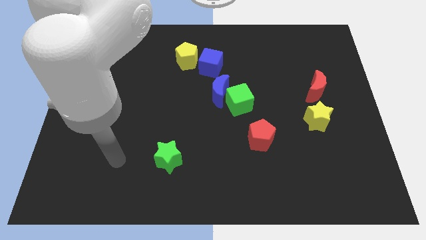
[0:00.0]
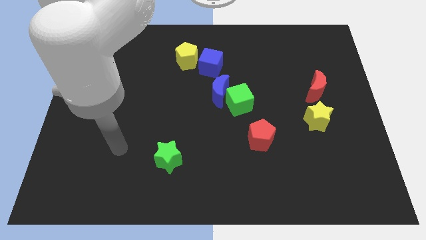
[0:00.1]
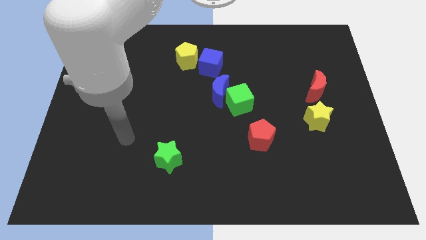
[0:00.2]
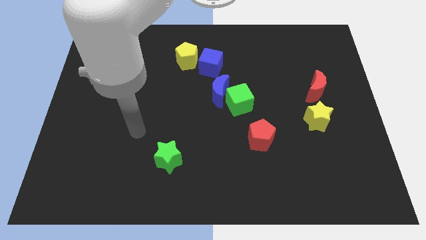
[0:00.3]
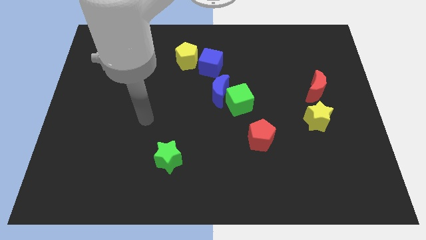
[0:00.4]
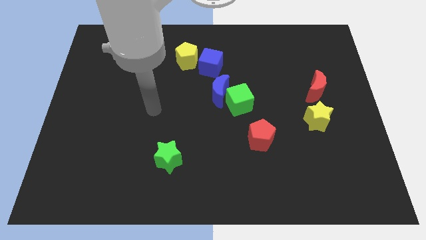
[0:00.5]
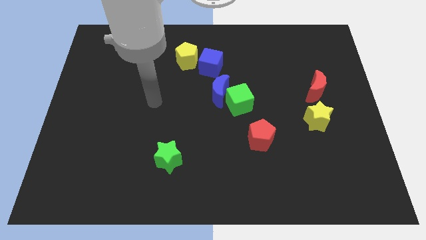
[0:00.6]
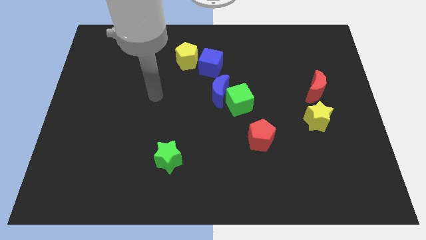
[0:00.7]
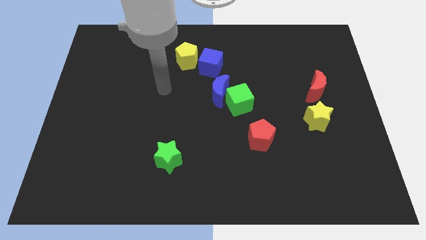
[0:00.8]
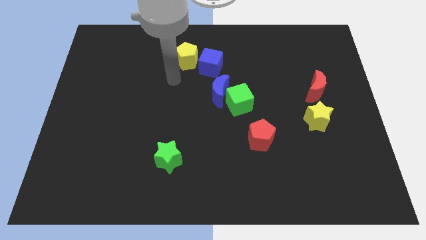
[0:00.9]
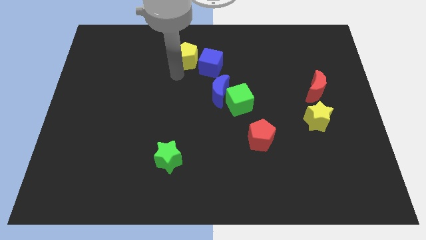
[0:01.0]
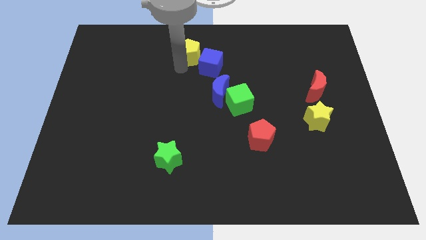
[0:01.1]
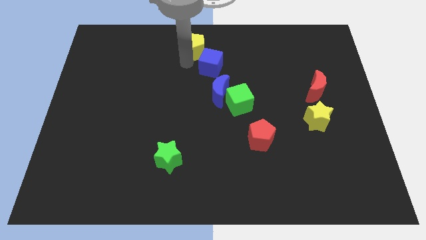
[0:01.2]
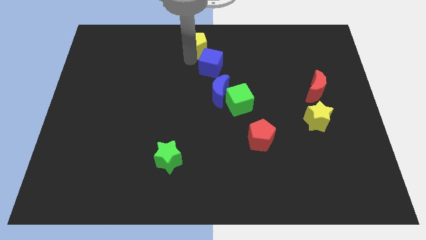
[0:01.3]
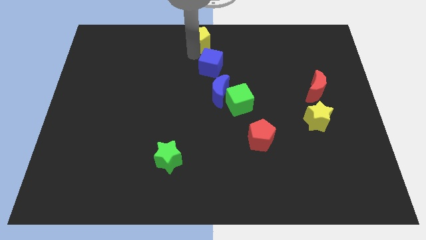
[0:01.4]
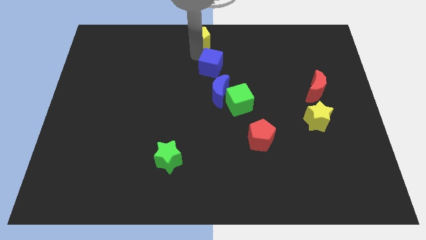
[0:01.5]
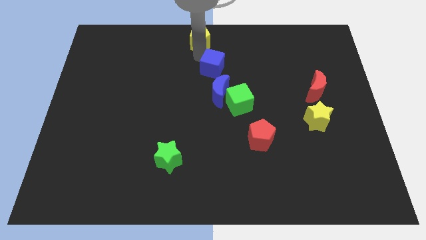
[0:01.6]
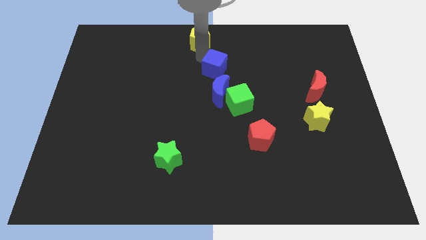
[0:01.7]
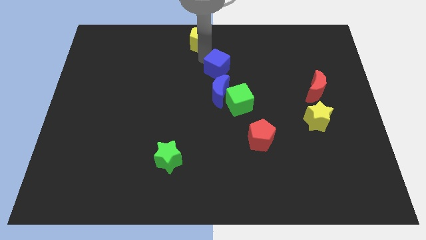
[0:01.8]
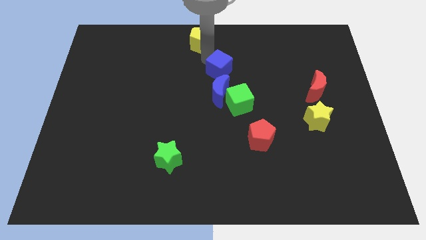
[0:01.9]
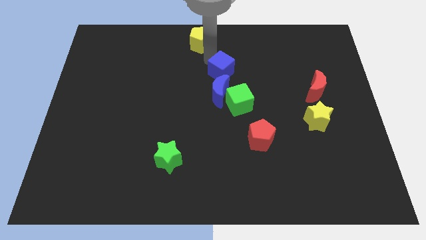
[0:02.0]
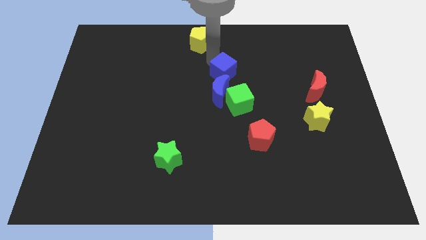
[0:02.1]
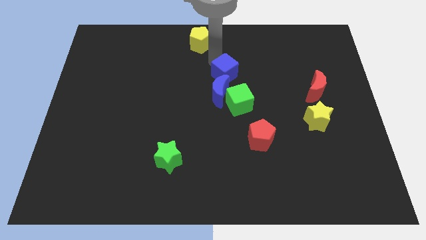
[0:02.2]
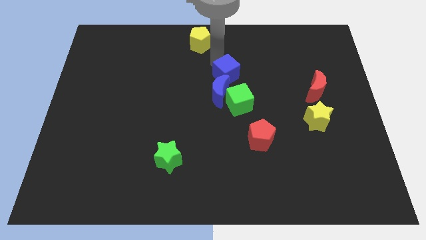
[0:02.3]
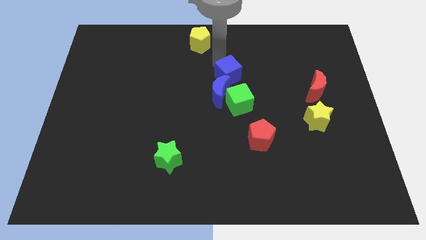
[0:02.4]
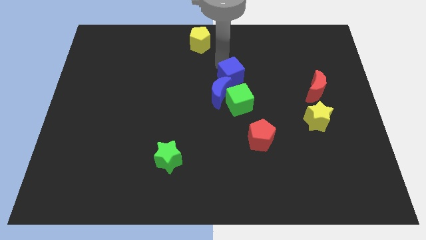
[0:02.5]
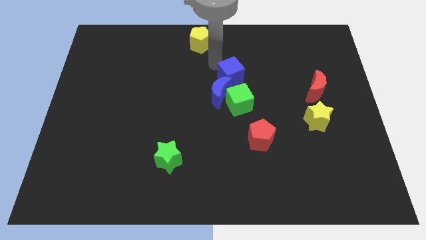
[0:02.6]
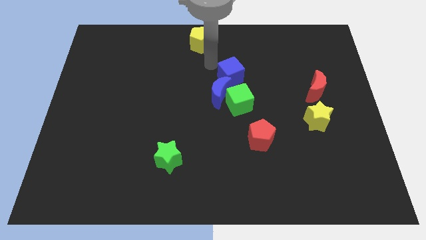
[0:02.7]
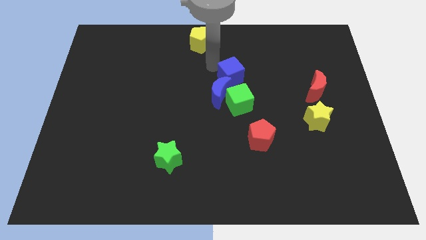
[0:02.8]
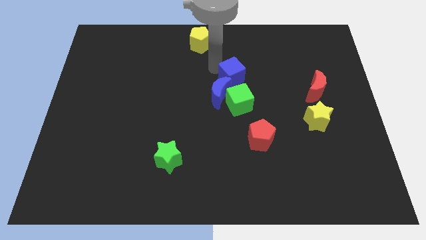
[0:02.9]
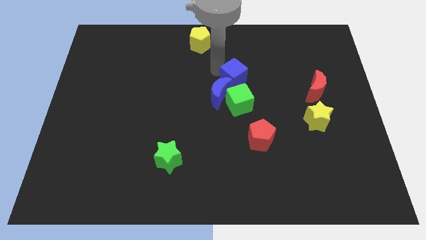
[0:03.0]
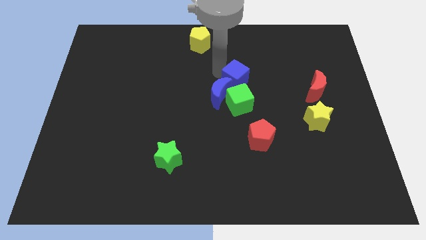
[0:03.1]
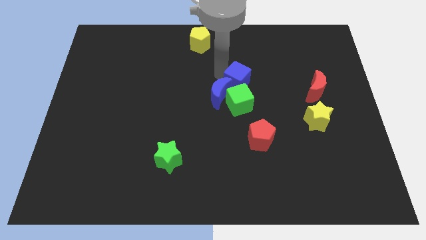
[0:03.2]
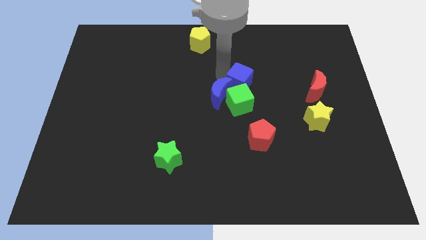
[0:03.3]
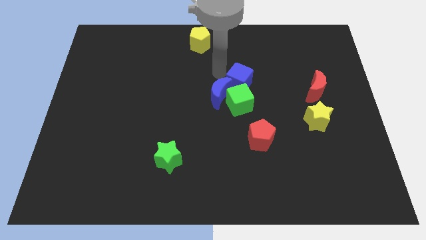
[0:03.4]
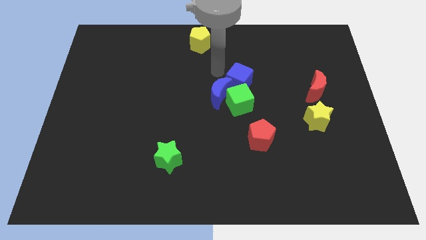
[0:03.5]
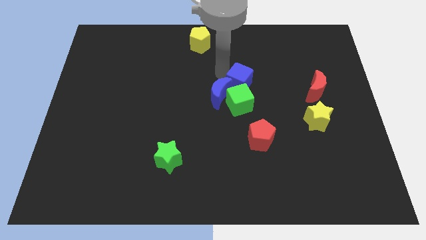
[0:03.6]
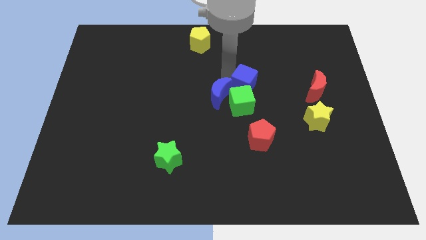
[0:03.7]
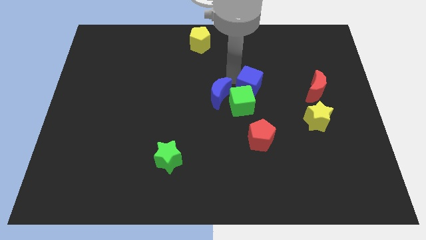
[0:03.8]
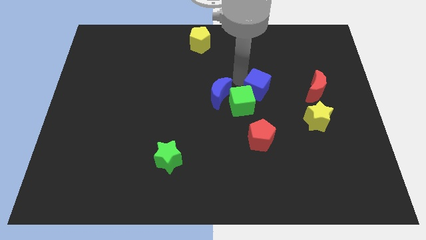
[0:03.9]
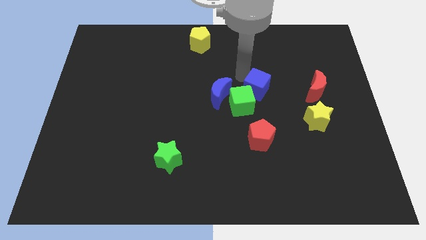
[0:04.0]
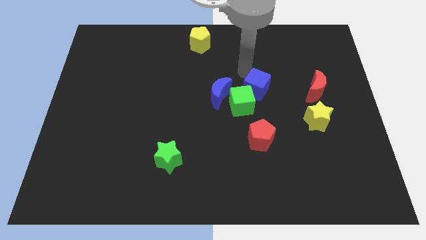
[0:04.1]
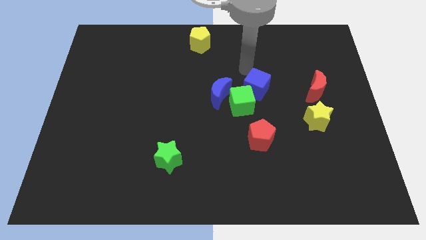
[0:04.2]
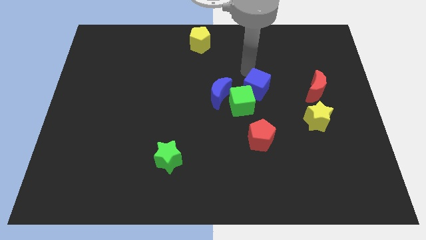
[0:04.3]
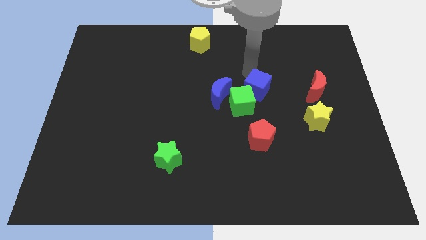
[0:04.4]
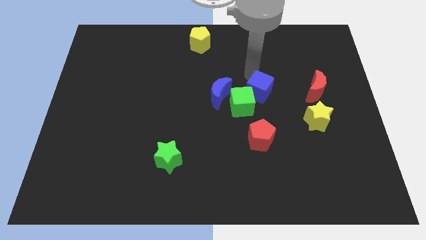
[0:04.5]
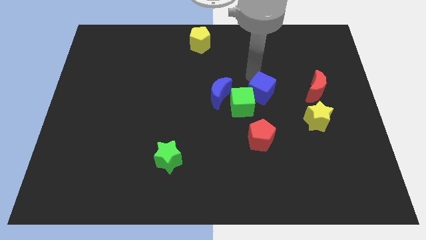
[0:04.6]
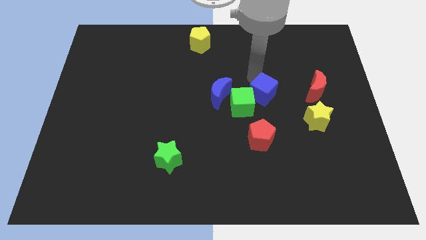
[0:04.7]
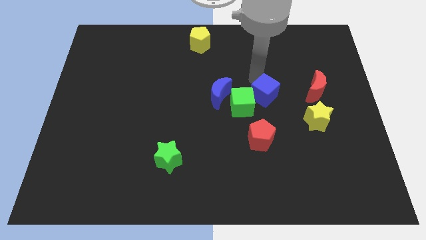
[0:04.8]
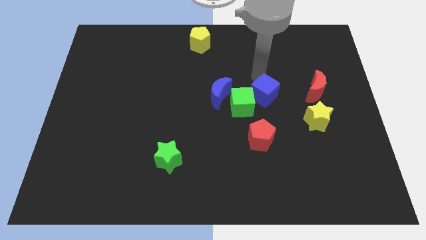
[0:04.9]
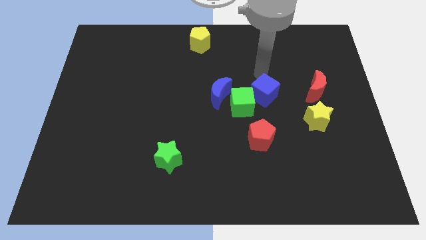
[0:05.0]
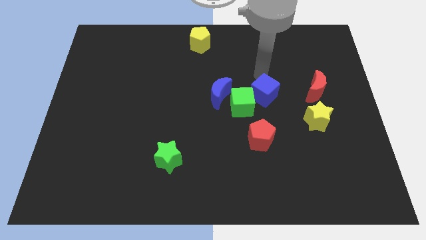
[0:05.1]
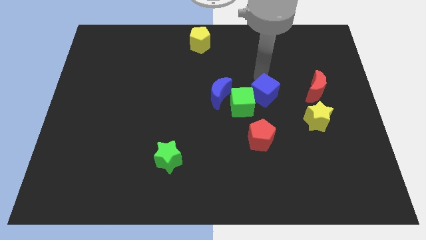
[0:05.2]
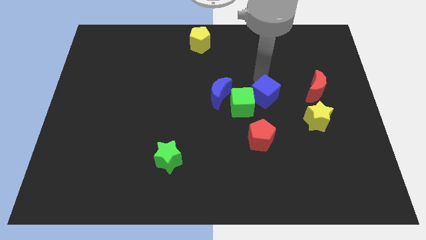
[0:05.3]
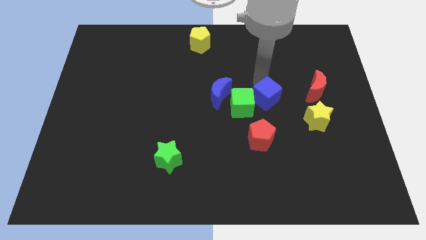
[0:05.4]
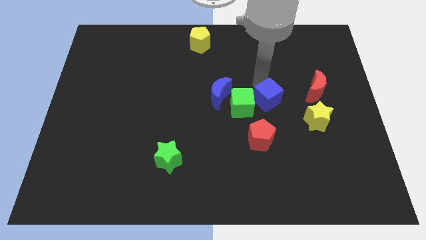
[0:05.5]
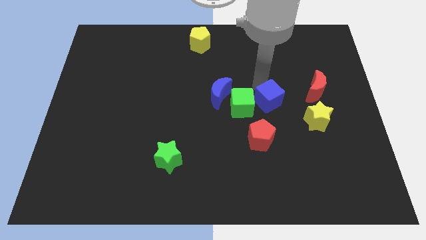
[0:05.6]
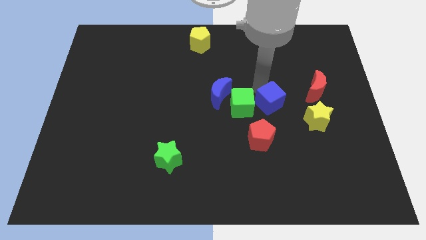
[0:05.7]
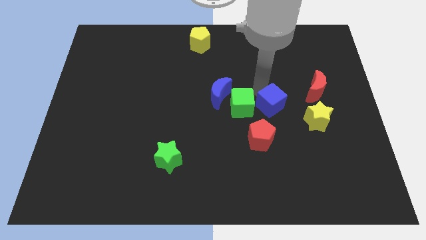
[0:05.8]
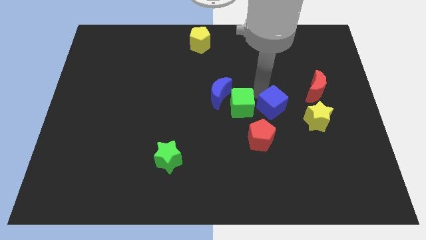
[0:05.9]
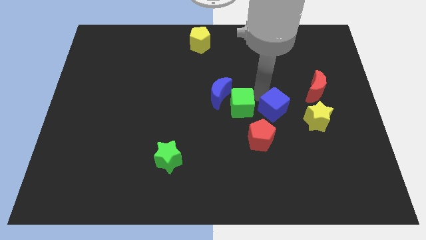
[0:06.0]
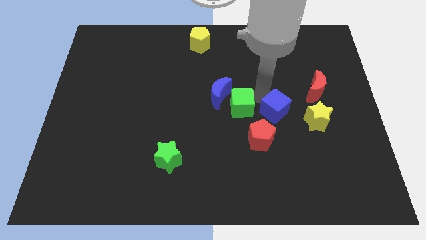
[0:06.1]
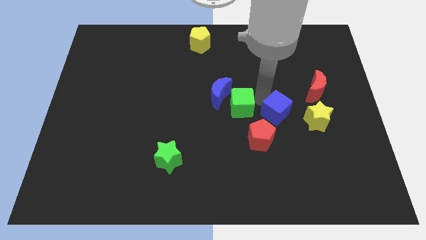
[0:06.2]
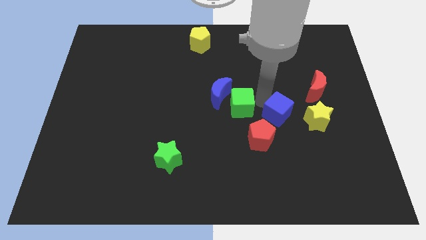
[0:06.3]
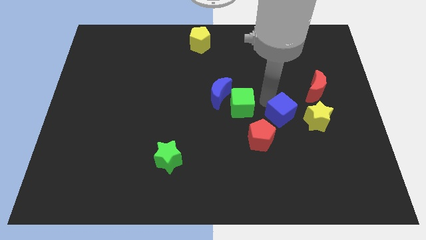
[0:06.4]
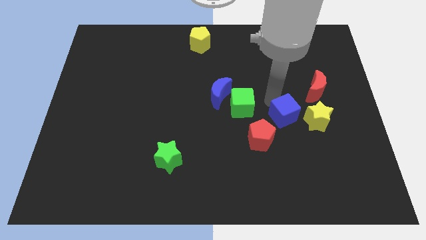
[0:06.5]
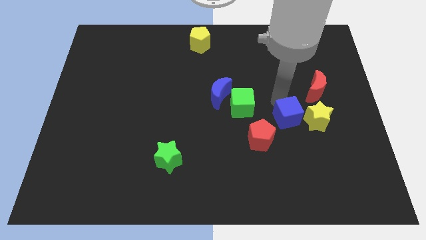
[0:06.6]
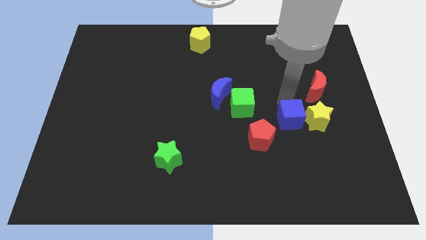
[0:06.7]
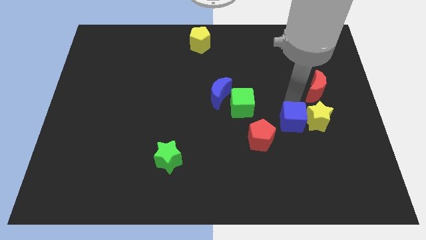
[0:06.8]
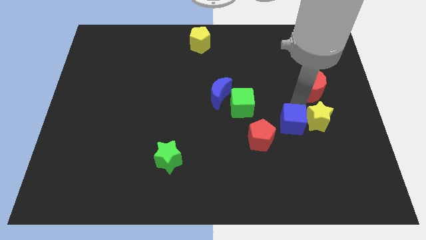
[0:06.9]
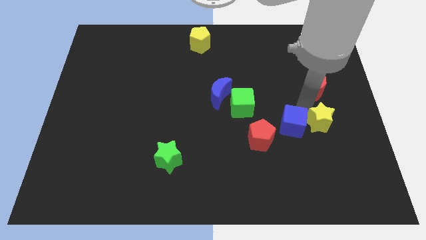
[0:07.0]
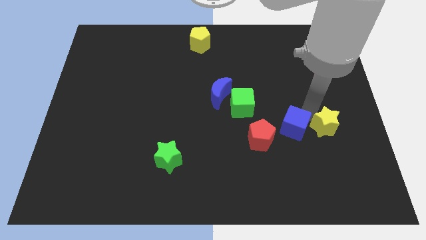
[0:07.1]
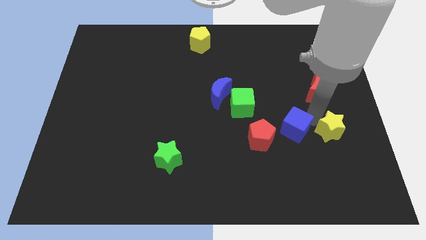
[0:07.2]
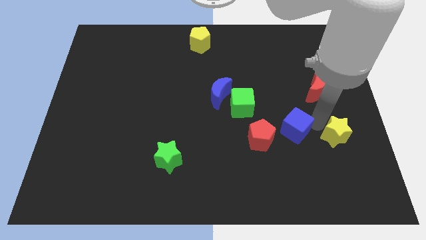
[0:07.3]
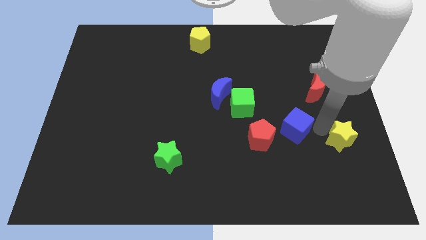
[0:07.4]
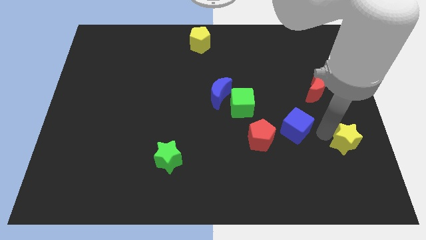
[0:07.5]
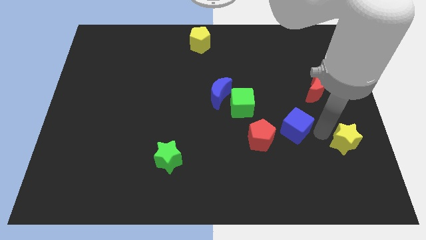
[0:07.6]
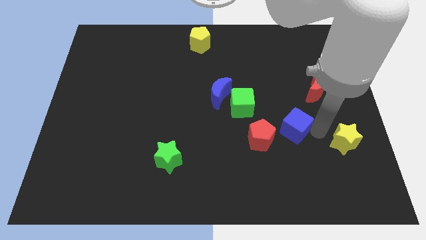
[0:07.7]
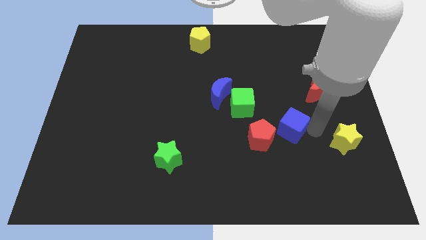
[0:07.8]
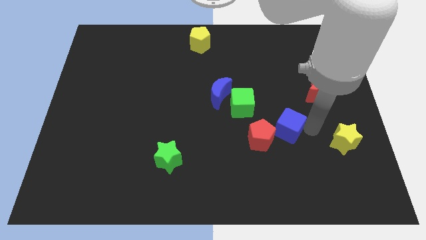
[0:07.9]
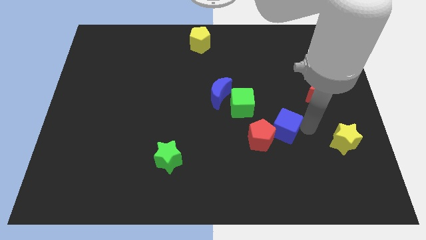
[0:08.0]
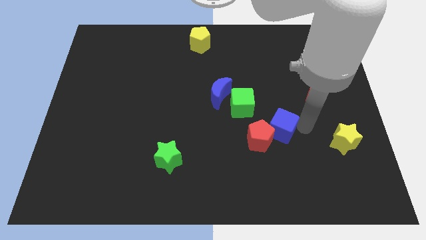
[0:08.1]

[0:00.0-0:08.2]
put the blue cube next to the red pentagon
